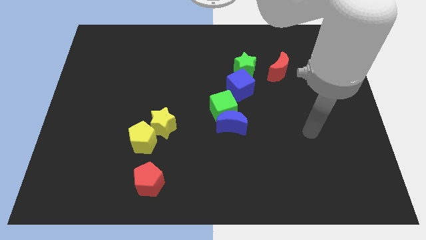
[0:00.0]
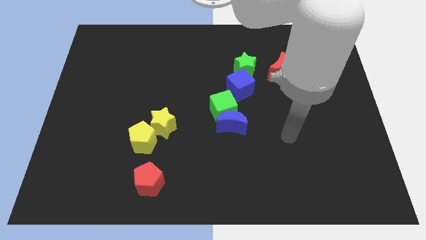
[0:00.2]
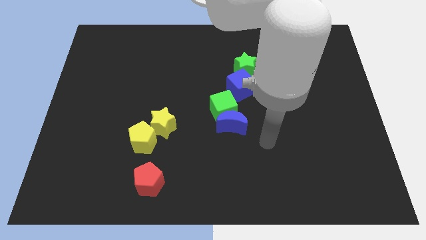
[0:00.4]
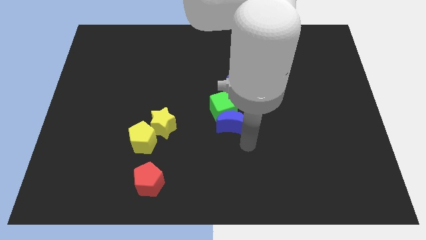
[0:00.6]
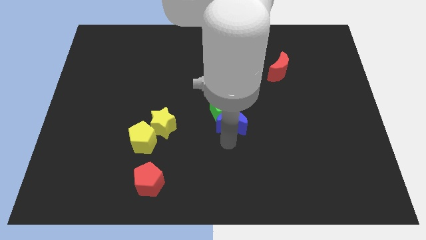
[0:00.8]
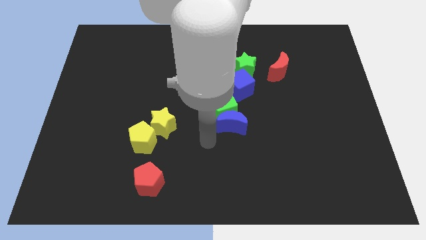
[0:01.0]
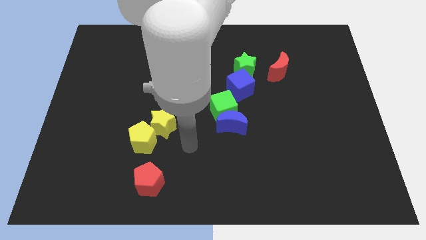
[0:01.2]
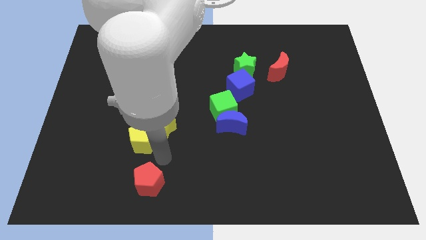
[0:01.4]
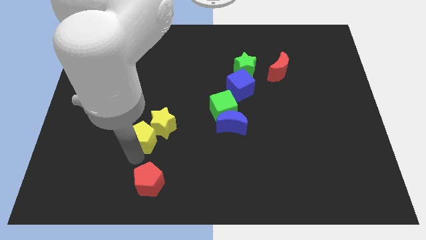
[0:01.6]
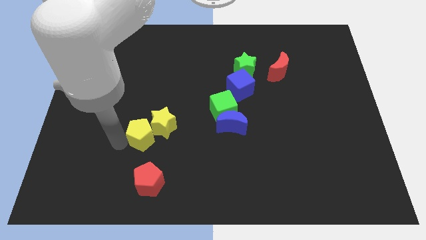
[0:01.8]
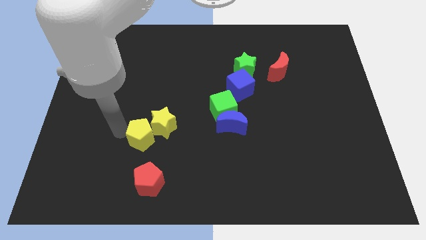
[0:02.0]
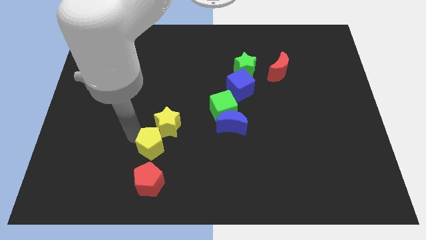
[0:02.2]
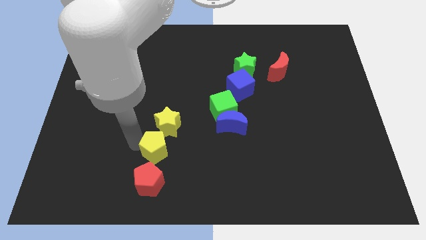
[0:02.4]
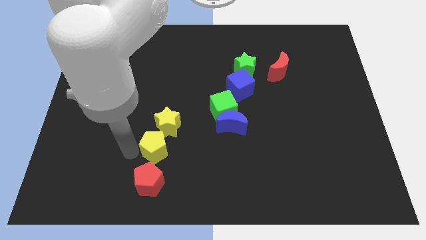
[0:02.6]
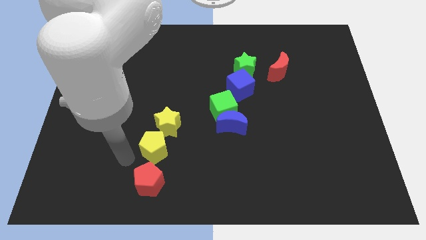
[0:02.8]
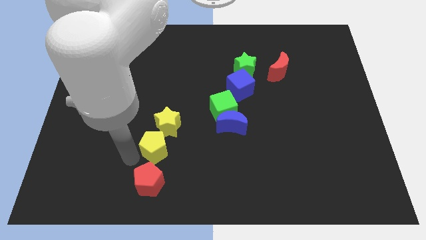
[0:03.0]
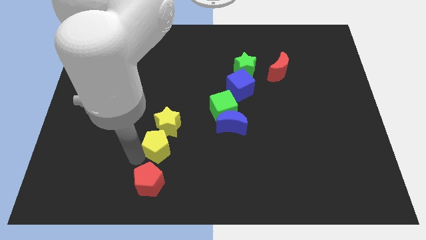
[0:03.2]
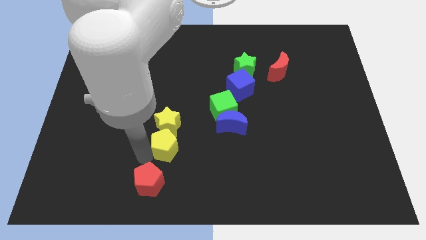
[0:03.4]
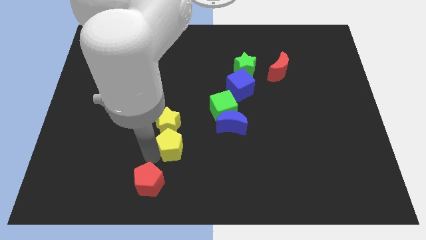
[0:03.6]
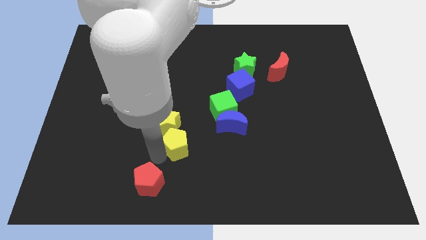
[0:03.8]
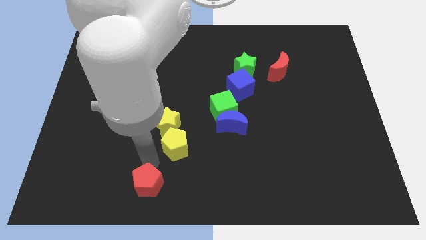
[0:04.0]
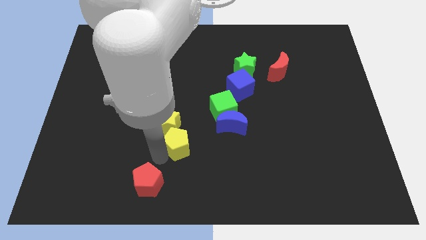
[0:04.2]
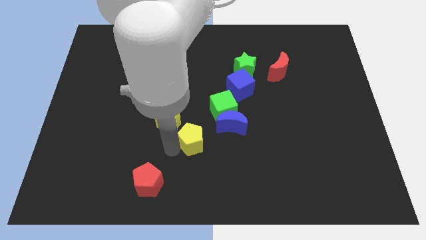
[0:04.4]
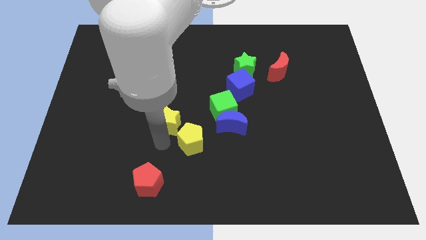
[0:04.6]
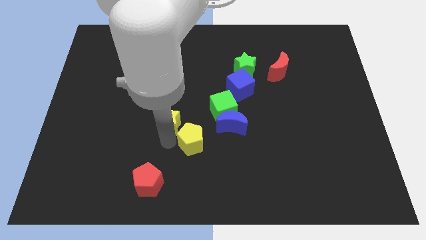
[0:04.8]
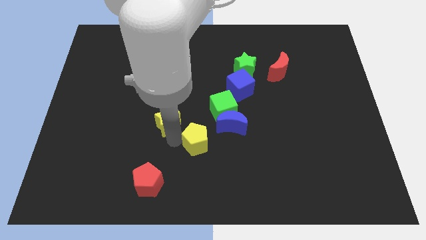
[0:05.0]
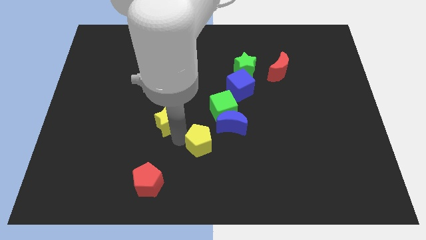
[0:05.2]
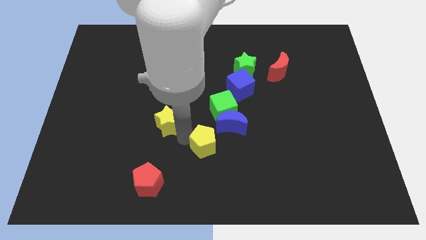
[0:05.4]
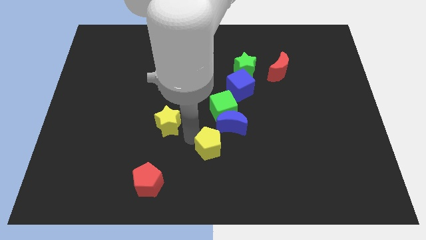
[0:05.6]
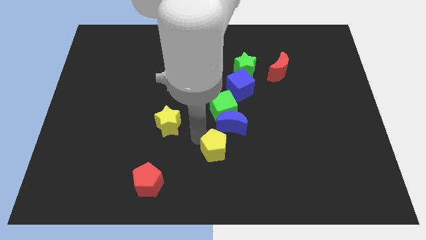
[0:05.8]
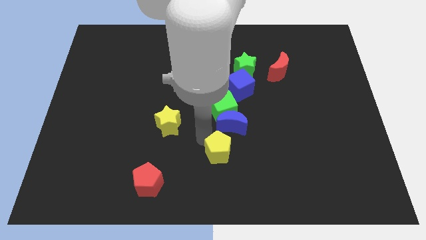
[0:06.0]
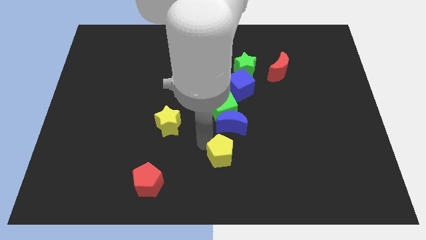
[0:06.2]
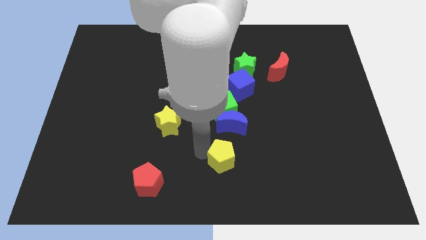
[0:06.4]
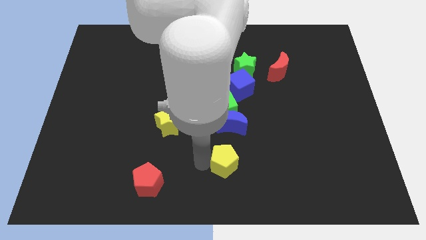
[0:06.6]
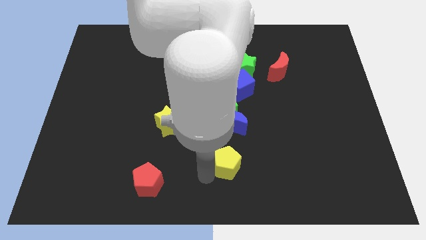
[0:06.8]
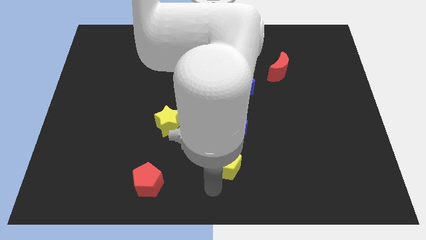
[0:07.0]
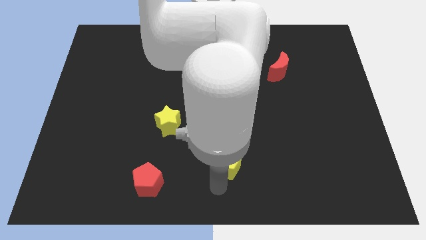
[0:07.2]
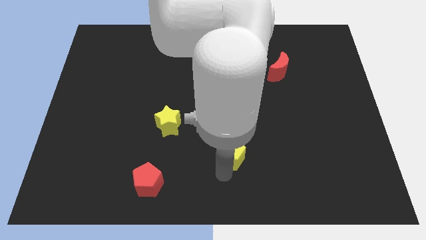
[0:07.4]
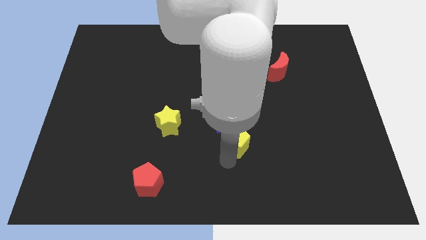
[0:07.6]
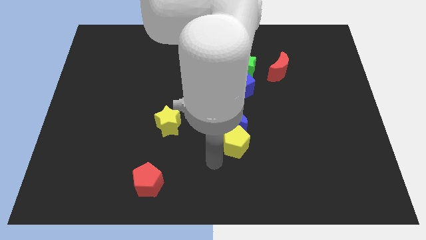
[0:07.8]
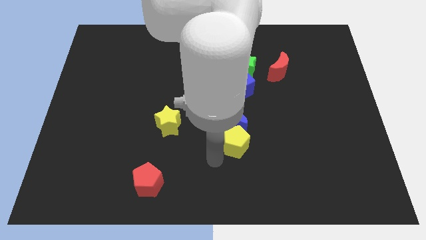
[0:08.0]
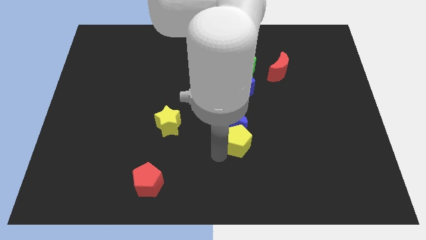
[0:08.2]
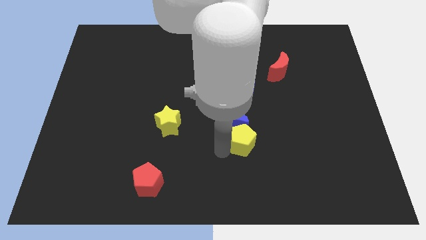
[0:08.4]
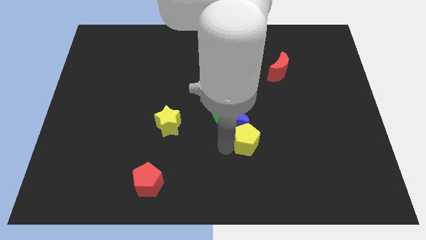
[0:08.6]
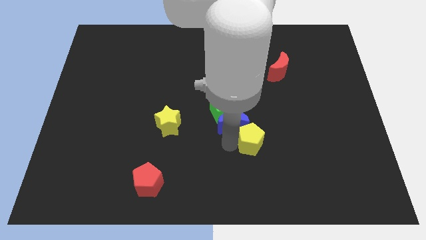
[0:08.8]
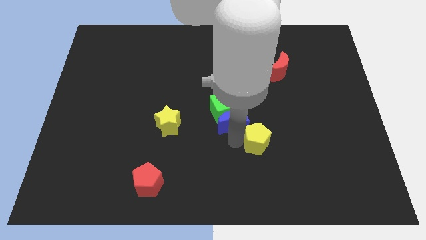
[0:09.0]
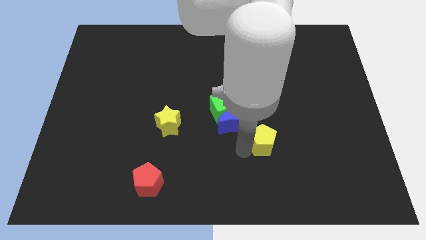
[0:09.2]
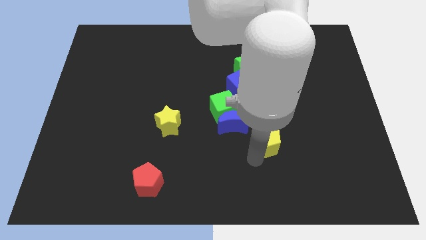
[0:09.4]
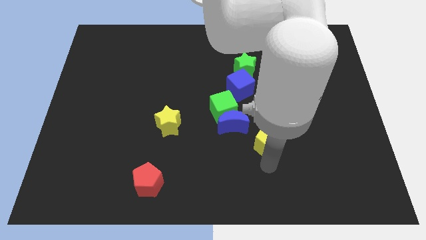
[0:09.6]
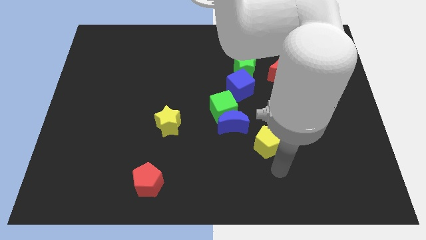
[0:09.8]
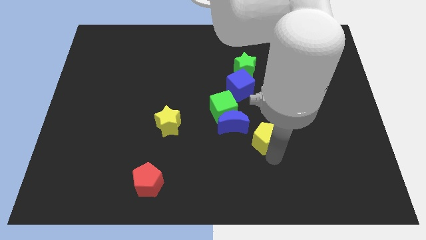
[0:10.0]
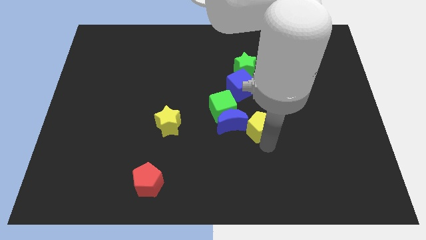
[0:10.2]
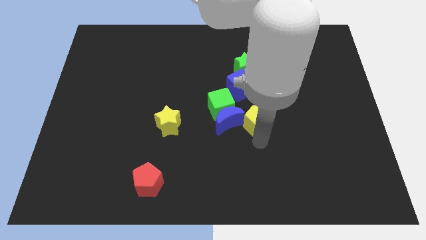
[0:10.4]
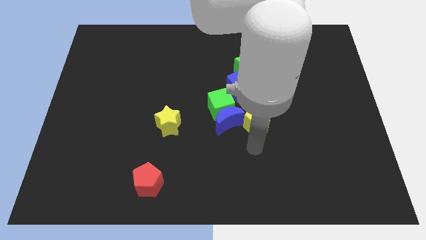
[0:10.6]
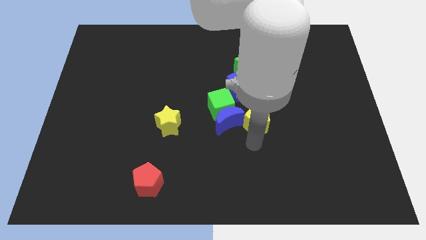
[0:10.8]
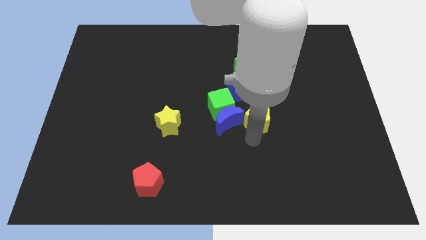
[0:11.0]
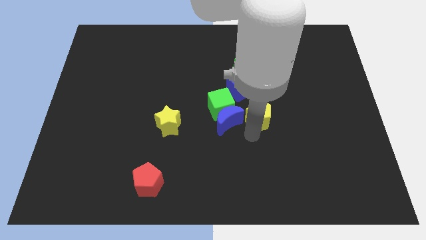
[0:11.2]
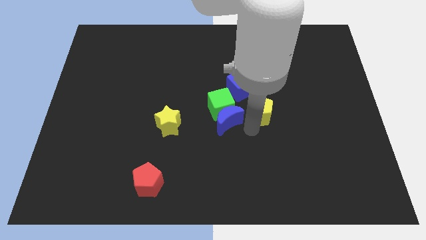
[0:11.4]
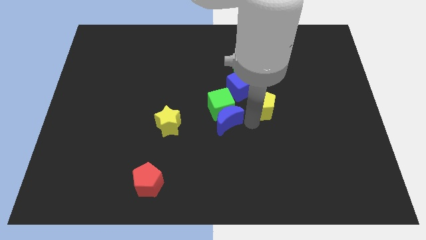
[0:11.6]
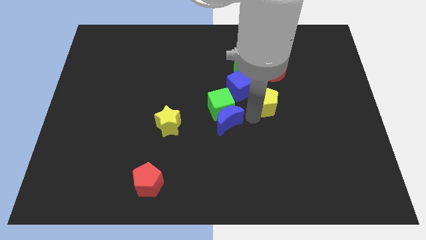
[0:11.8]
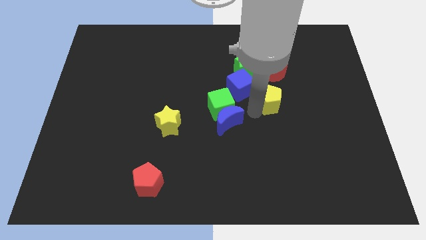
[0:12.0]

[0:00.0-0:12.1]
move the yellow pentagon to the bottom left of the red moon
